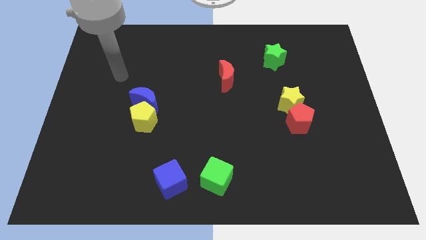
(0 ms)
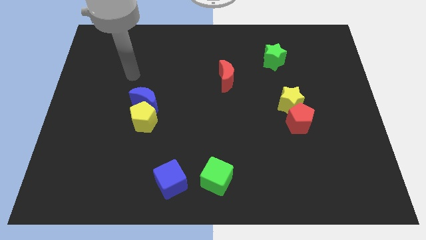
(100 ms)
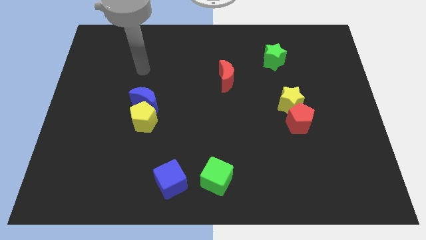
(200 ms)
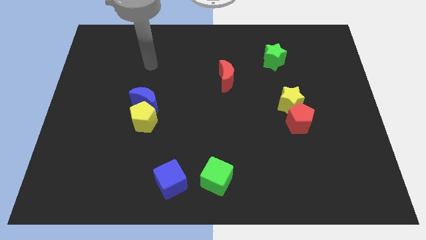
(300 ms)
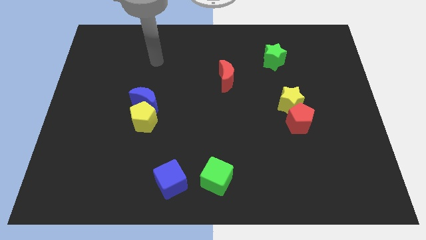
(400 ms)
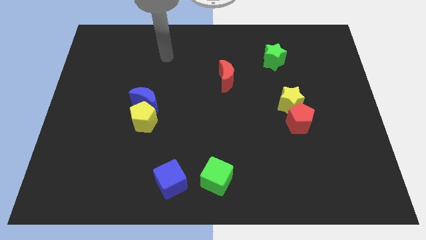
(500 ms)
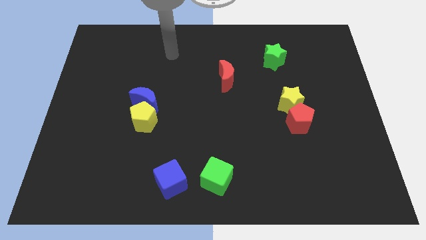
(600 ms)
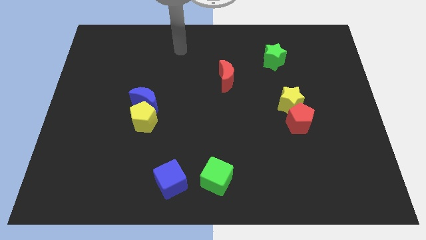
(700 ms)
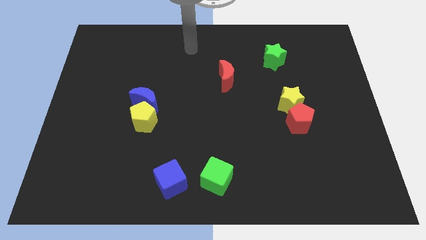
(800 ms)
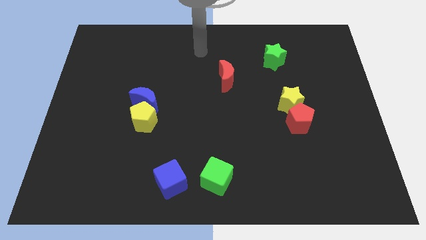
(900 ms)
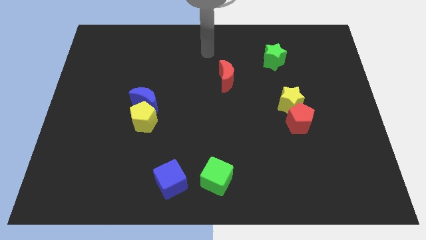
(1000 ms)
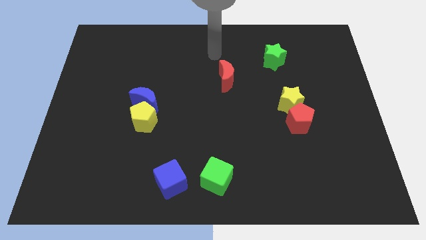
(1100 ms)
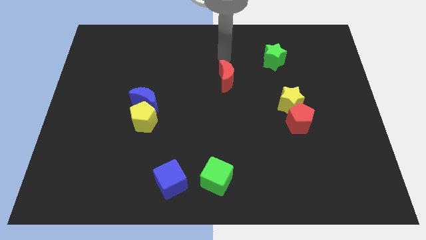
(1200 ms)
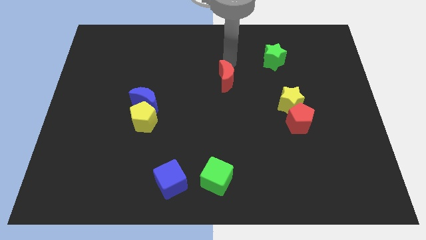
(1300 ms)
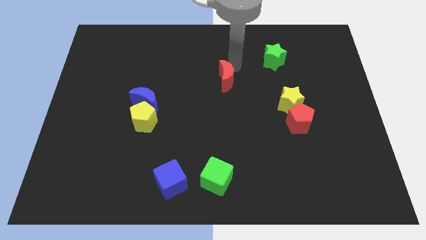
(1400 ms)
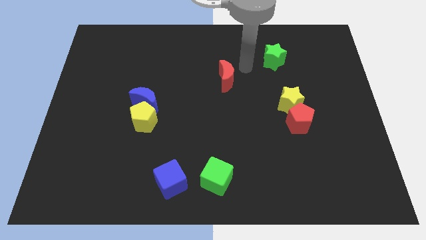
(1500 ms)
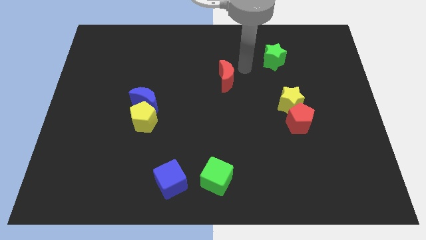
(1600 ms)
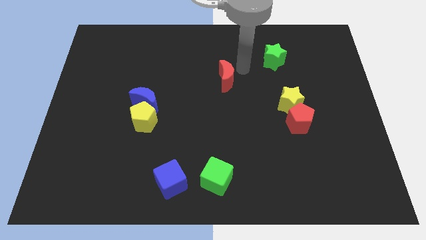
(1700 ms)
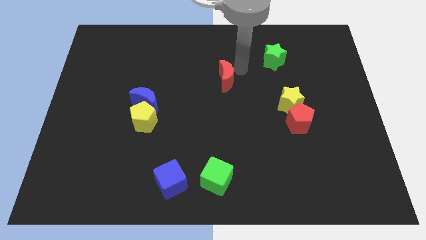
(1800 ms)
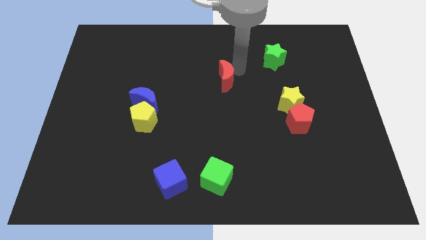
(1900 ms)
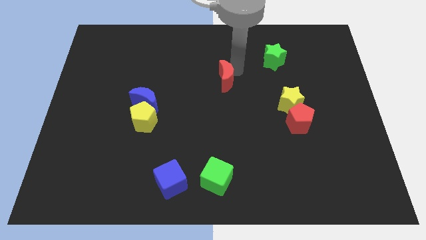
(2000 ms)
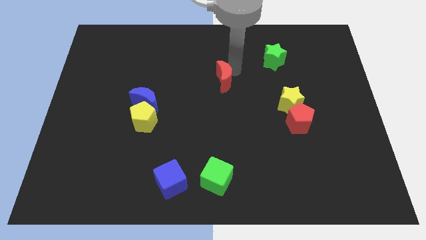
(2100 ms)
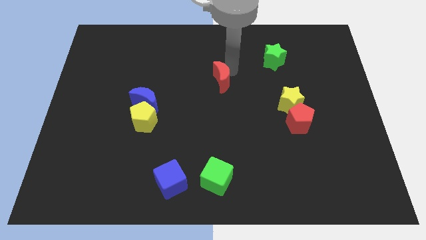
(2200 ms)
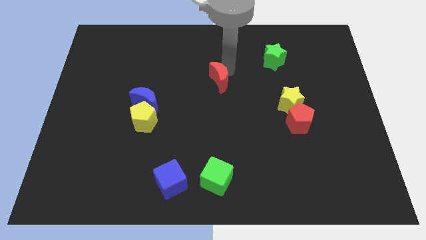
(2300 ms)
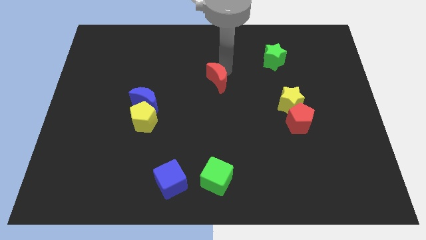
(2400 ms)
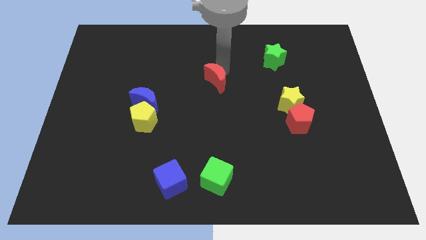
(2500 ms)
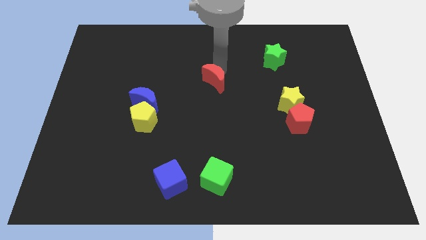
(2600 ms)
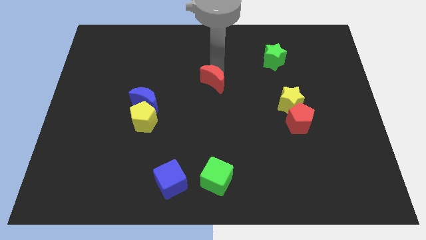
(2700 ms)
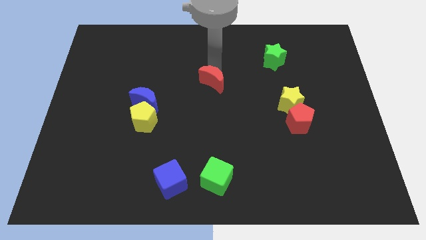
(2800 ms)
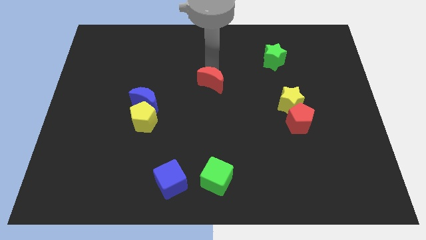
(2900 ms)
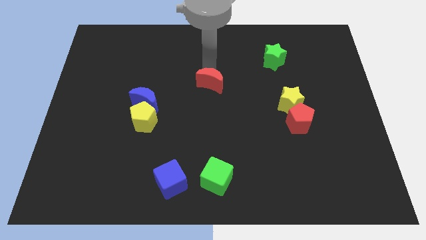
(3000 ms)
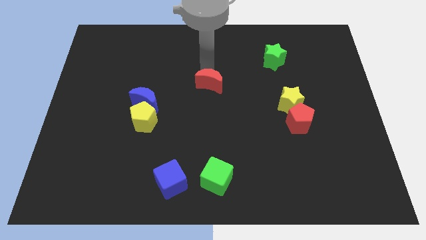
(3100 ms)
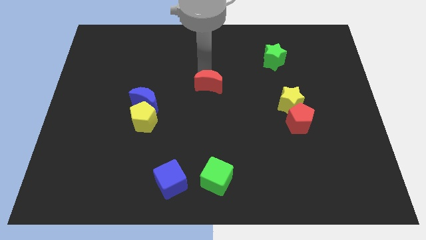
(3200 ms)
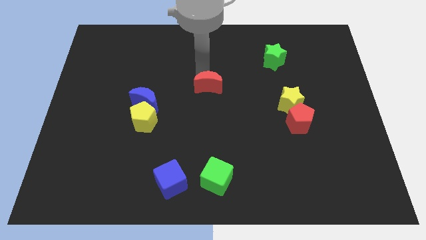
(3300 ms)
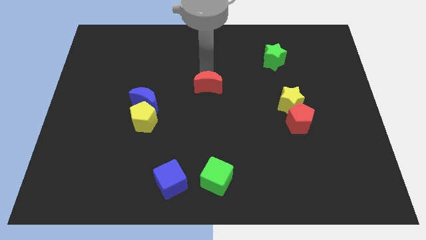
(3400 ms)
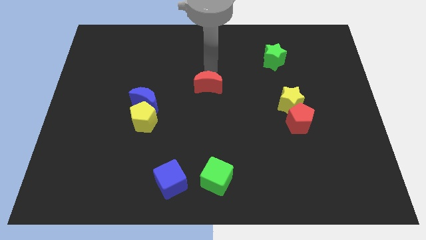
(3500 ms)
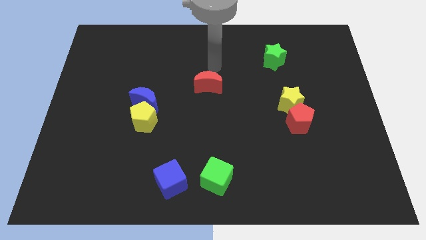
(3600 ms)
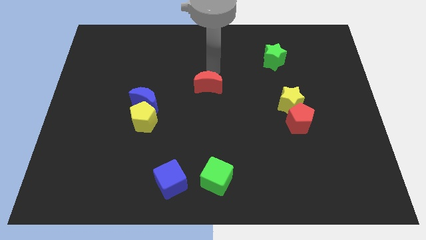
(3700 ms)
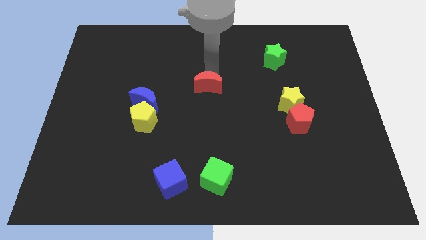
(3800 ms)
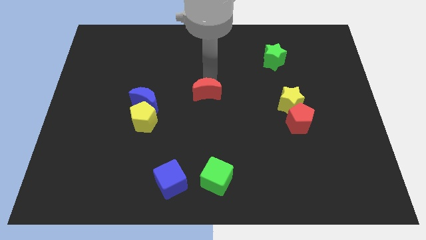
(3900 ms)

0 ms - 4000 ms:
move the red moon down and to the left a little bit

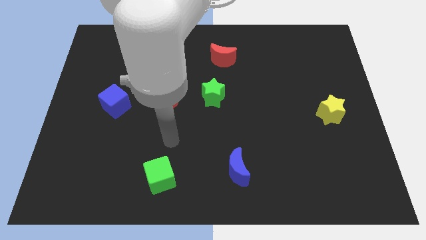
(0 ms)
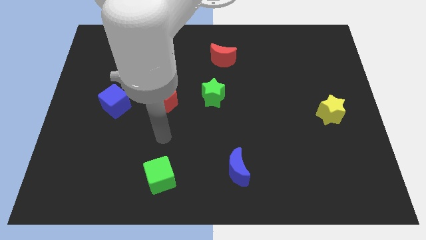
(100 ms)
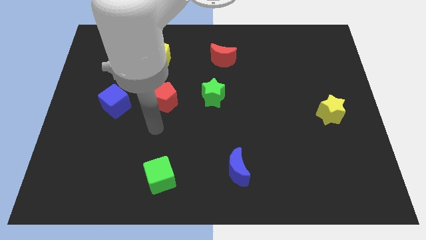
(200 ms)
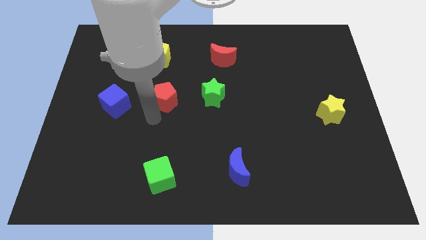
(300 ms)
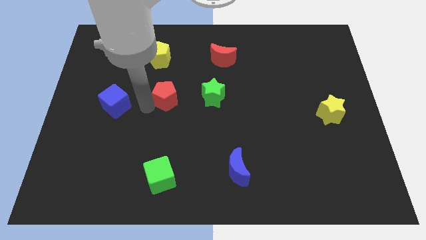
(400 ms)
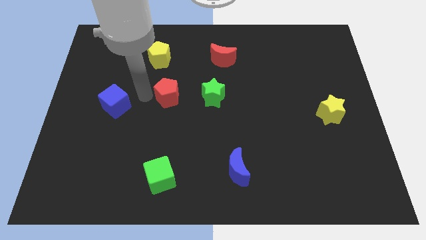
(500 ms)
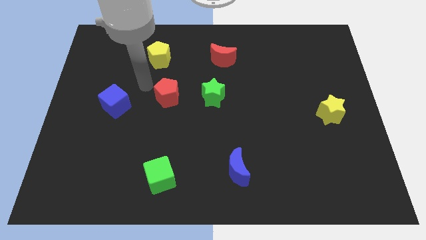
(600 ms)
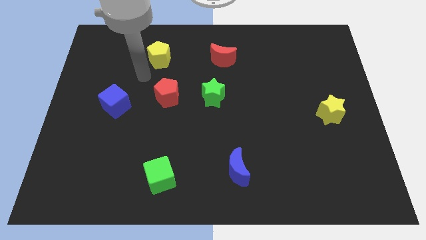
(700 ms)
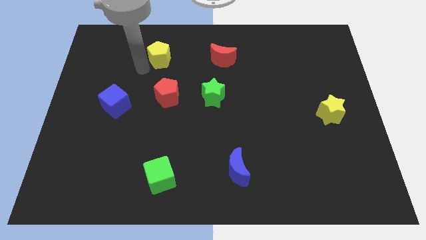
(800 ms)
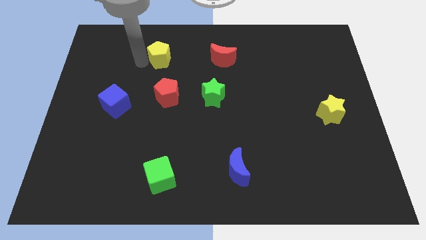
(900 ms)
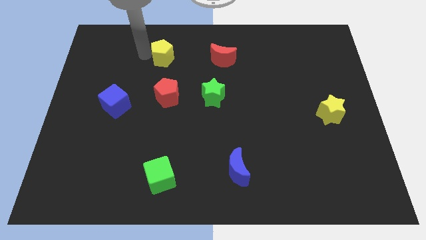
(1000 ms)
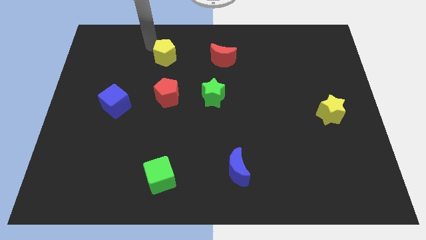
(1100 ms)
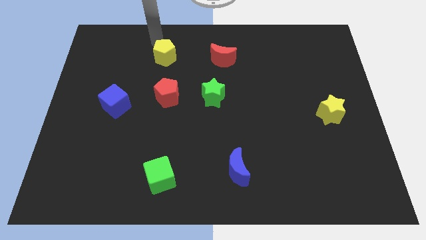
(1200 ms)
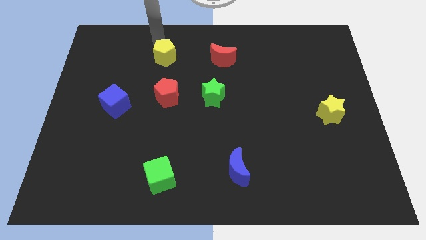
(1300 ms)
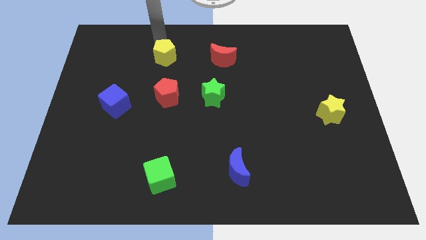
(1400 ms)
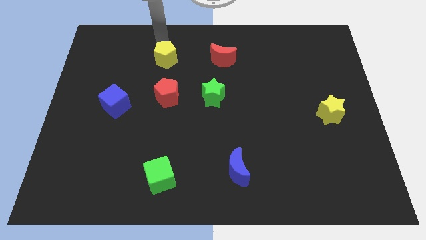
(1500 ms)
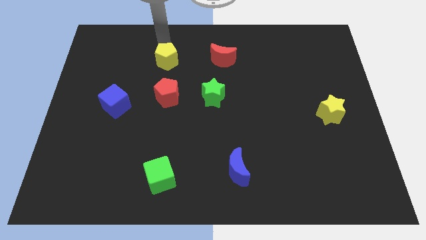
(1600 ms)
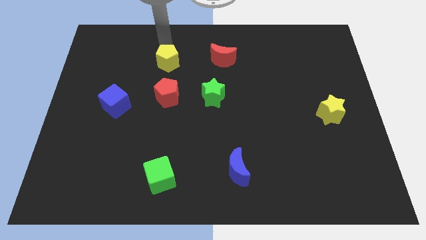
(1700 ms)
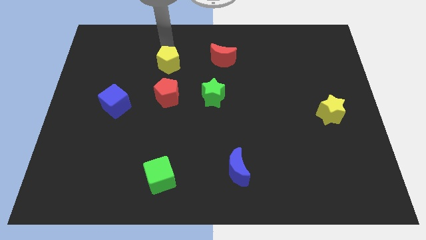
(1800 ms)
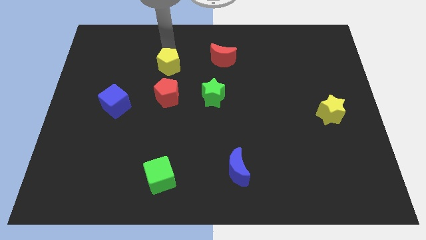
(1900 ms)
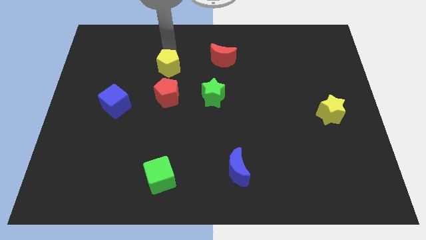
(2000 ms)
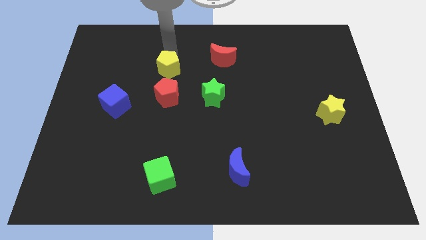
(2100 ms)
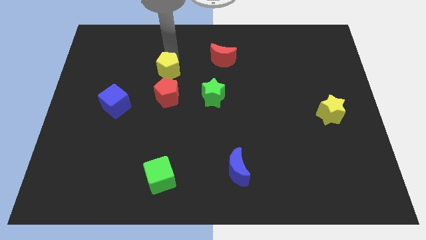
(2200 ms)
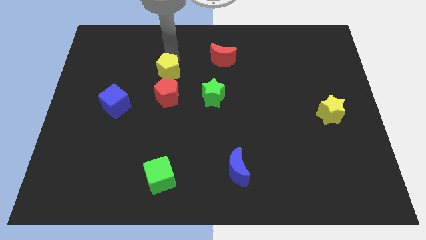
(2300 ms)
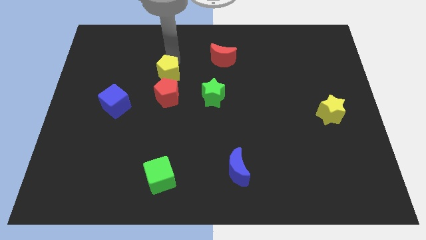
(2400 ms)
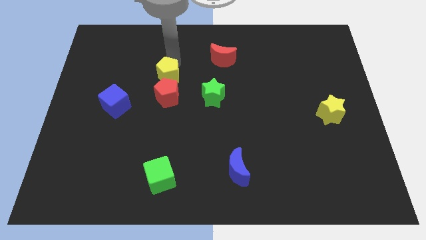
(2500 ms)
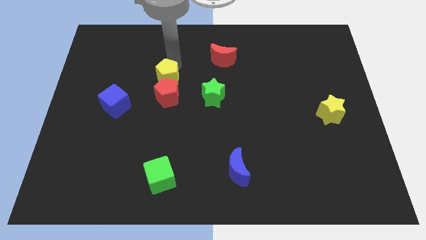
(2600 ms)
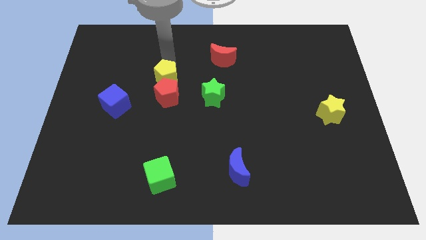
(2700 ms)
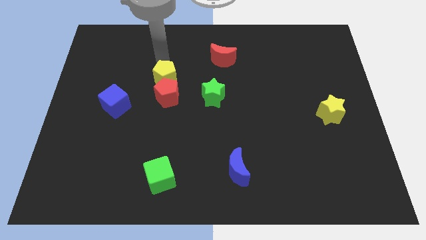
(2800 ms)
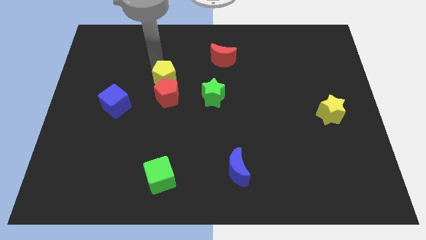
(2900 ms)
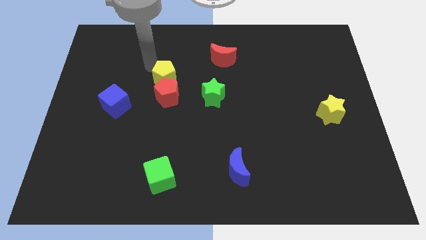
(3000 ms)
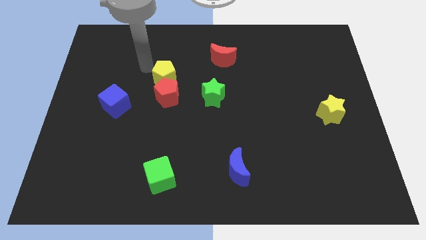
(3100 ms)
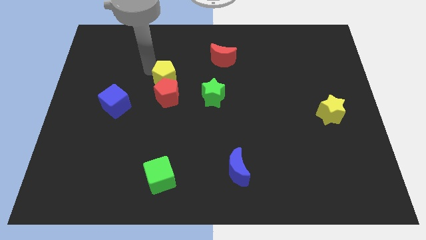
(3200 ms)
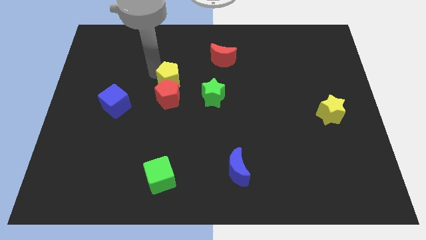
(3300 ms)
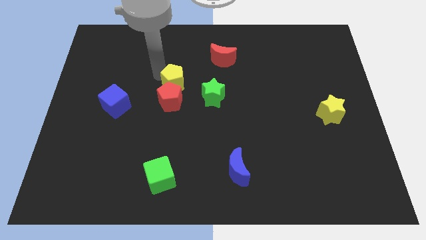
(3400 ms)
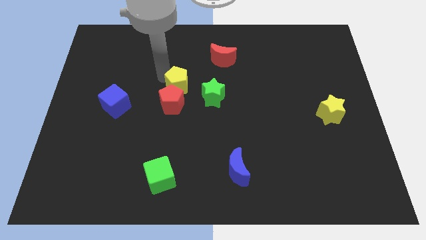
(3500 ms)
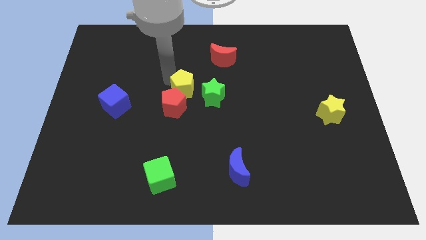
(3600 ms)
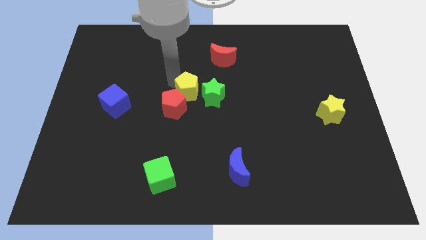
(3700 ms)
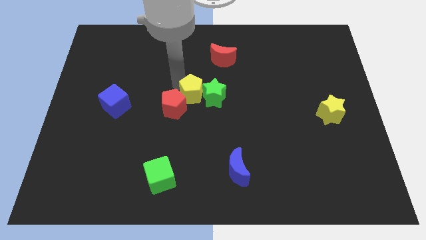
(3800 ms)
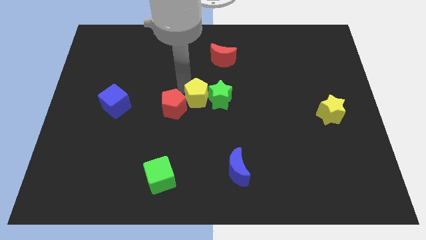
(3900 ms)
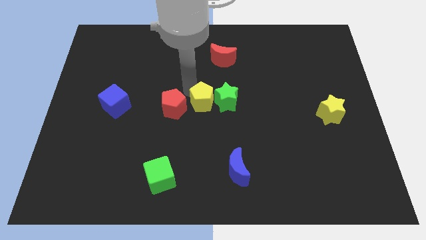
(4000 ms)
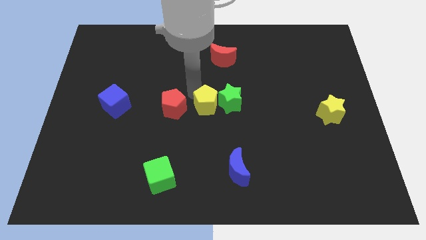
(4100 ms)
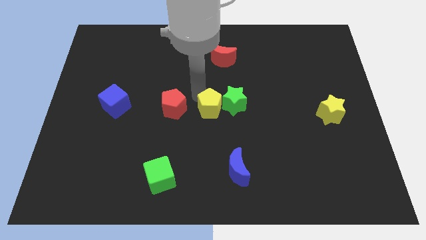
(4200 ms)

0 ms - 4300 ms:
push the yellow pentagon downwards and then to the right
